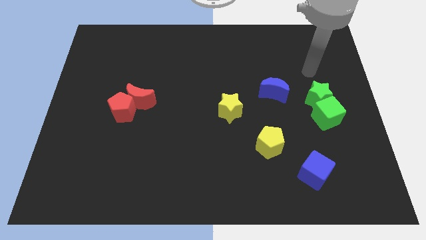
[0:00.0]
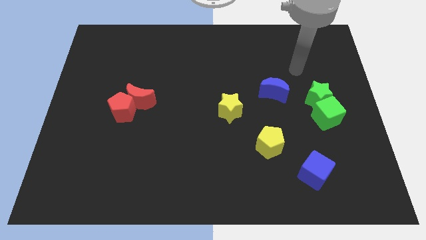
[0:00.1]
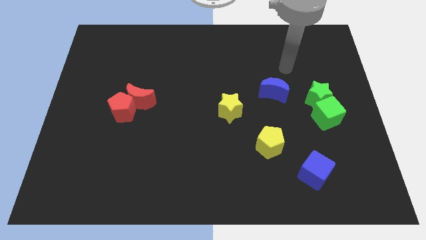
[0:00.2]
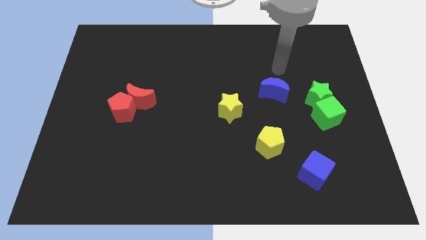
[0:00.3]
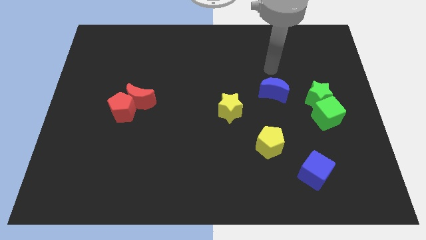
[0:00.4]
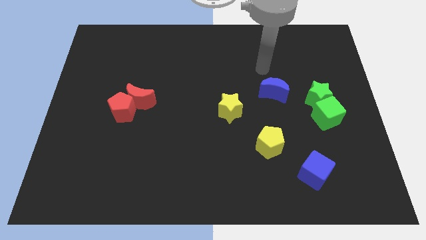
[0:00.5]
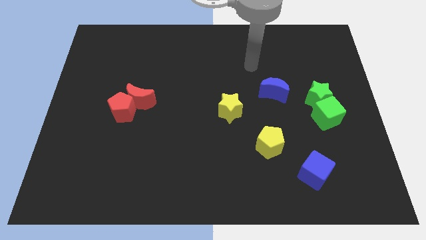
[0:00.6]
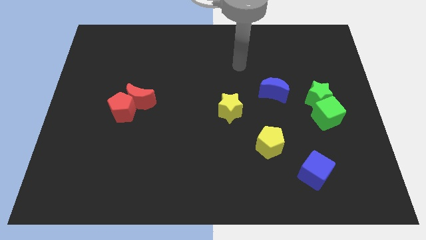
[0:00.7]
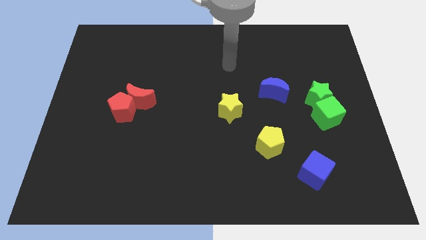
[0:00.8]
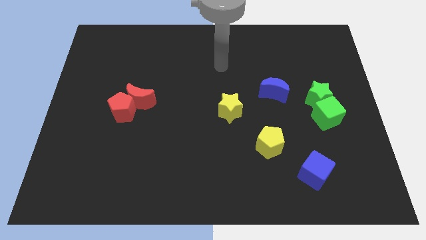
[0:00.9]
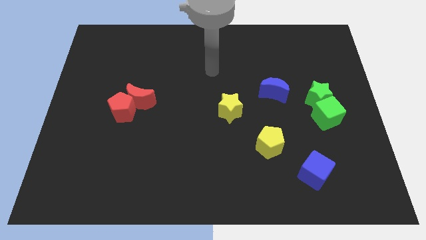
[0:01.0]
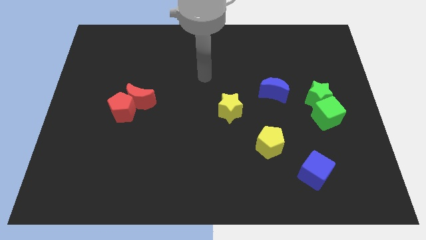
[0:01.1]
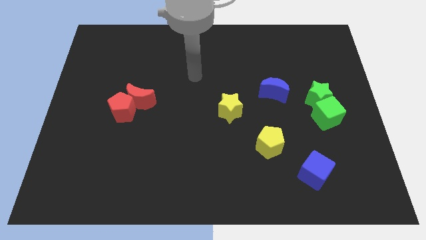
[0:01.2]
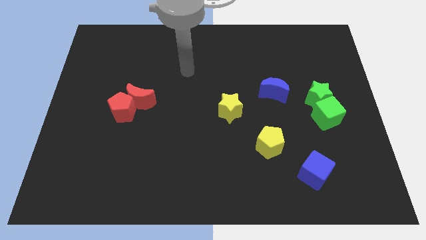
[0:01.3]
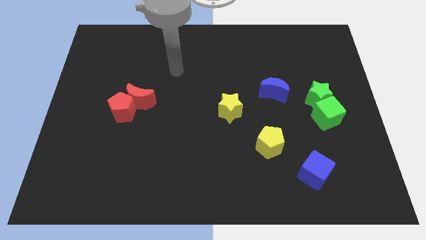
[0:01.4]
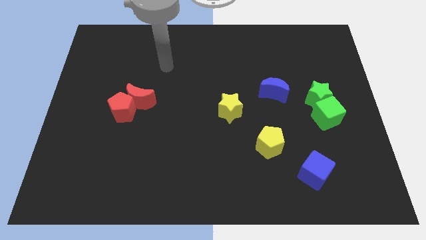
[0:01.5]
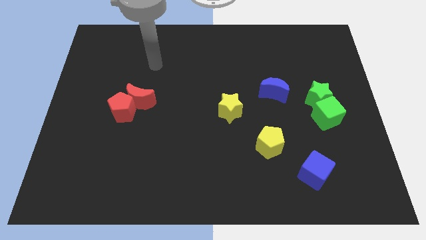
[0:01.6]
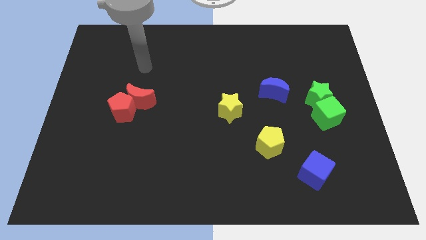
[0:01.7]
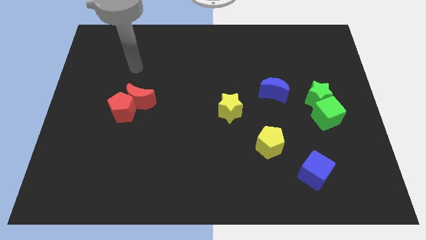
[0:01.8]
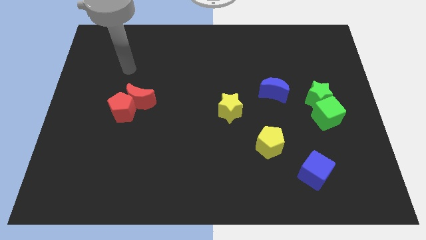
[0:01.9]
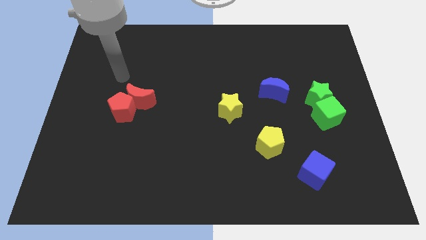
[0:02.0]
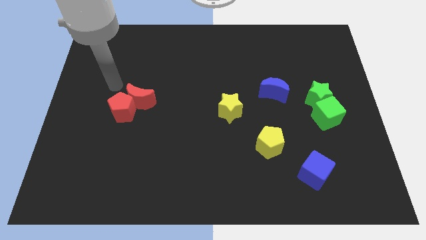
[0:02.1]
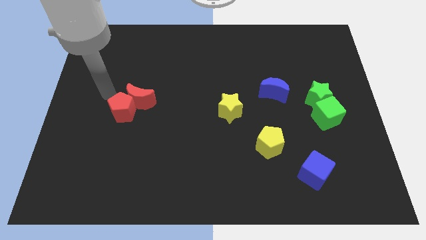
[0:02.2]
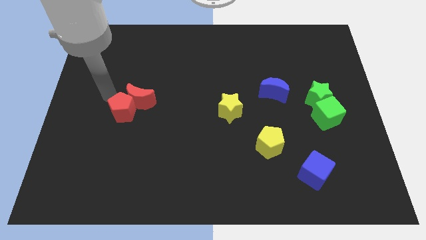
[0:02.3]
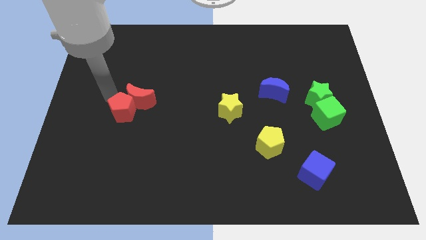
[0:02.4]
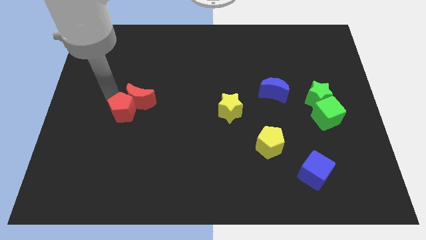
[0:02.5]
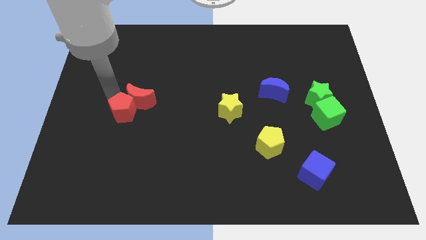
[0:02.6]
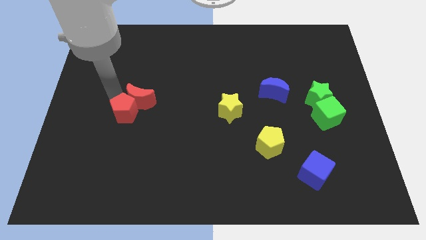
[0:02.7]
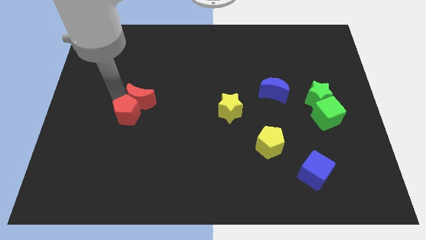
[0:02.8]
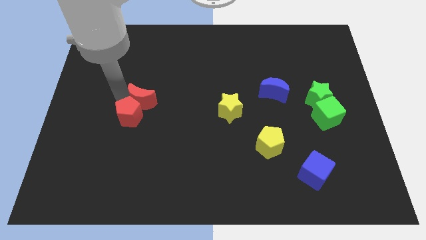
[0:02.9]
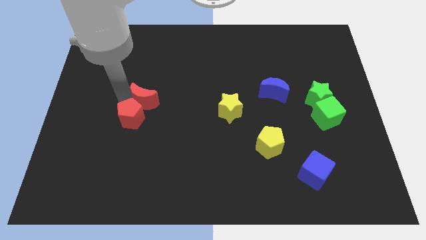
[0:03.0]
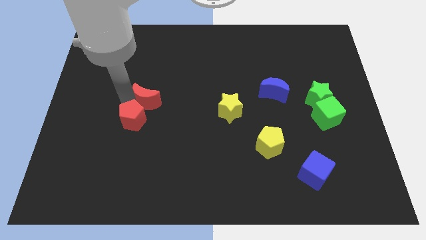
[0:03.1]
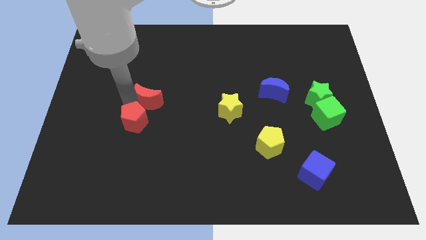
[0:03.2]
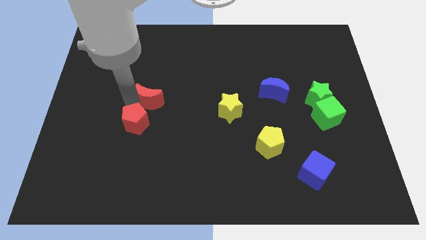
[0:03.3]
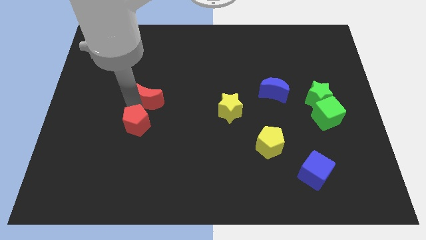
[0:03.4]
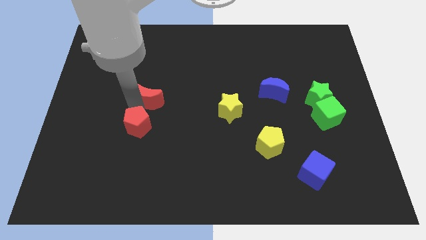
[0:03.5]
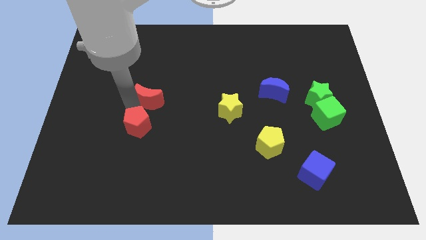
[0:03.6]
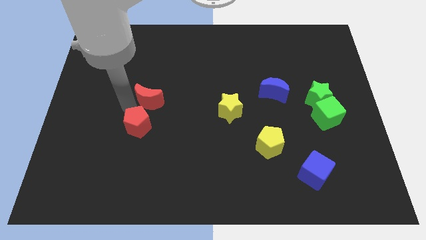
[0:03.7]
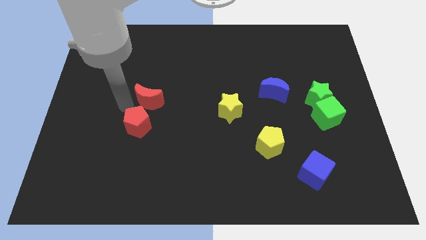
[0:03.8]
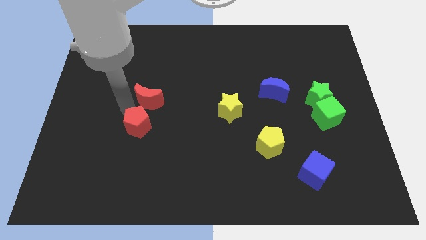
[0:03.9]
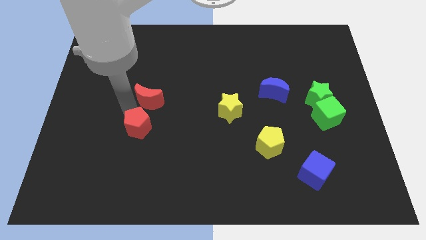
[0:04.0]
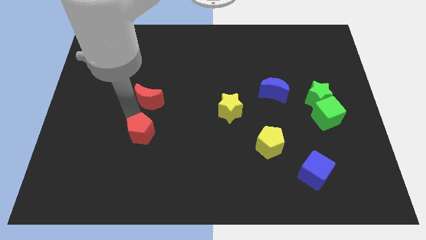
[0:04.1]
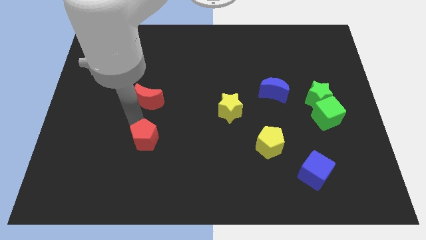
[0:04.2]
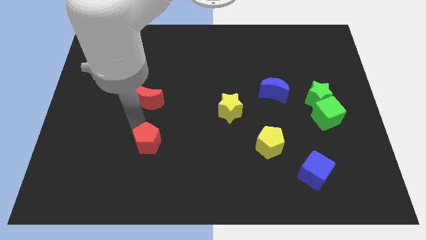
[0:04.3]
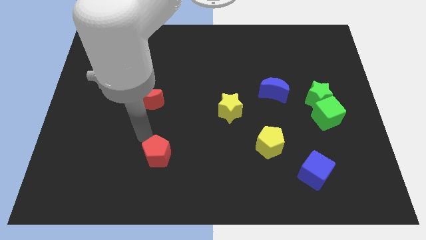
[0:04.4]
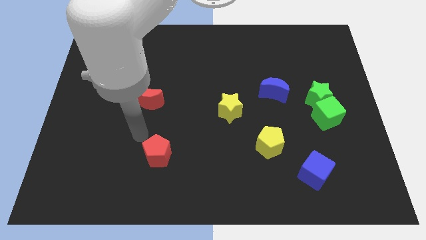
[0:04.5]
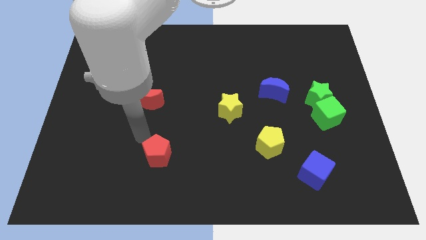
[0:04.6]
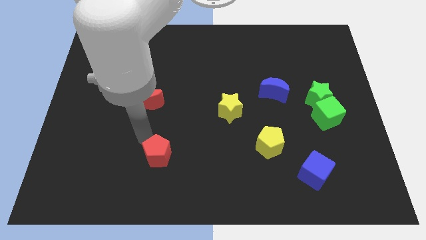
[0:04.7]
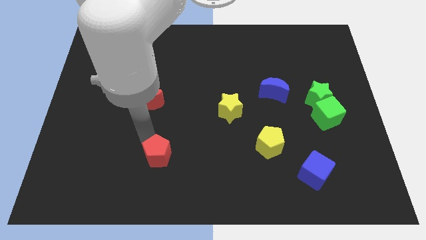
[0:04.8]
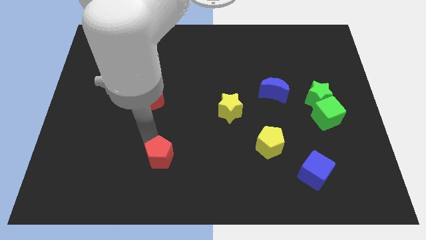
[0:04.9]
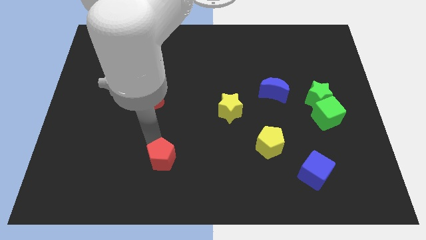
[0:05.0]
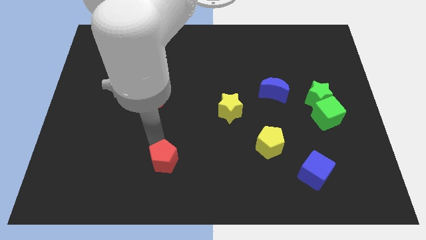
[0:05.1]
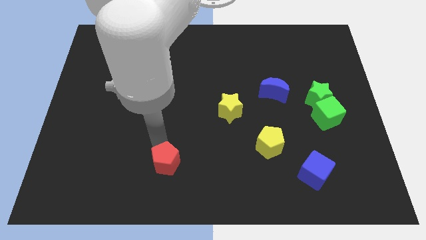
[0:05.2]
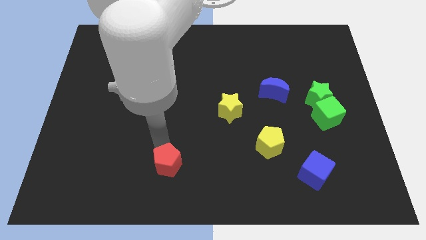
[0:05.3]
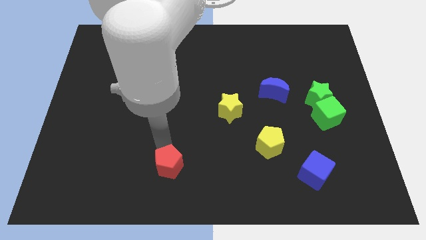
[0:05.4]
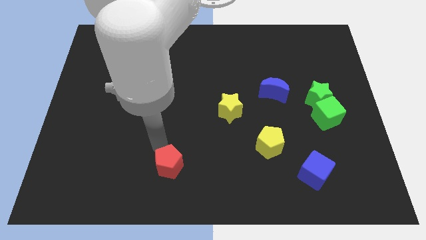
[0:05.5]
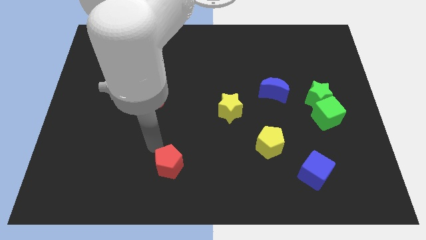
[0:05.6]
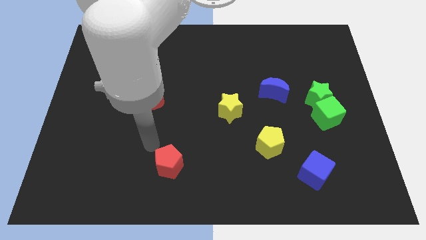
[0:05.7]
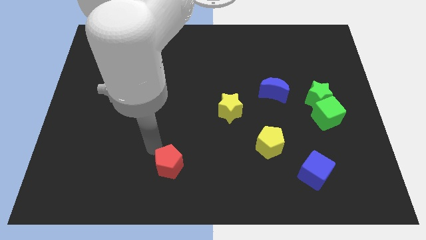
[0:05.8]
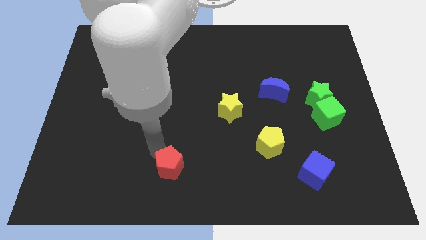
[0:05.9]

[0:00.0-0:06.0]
push the red pentagon to the bottom side

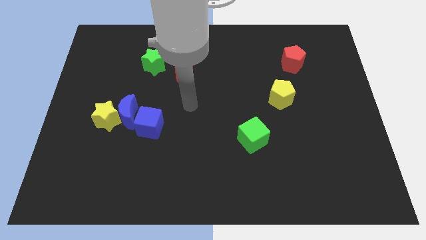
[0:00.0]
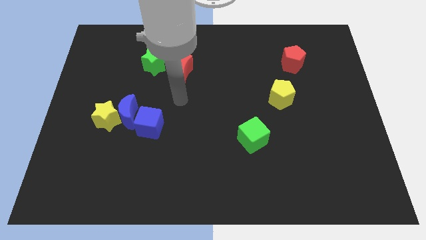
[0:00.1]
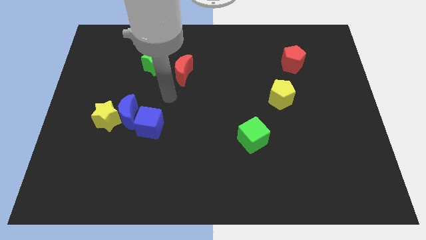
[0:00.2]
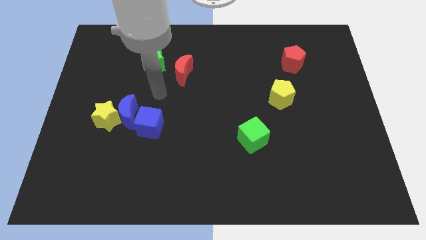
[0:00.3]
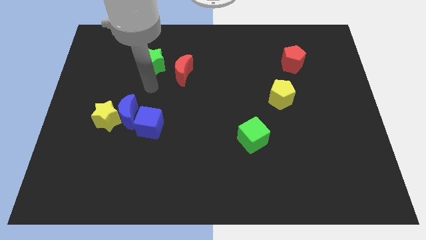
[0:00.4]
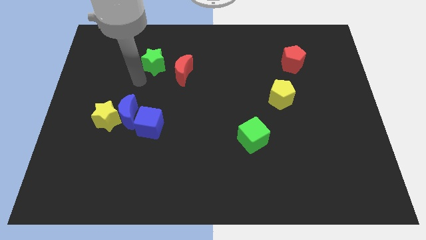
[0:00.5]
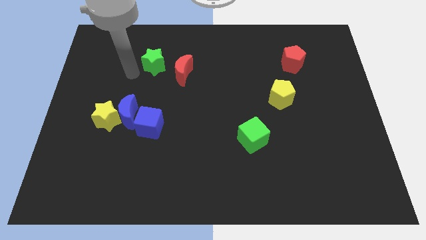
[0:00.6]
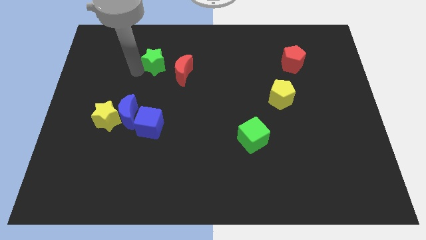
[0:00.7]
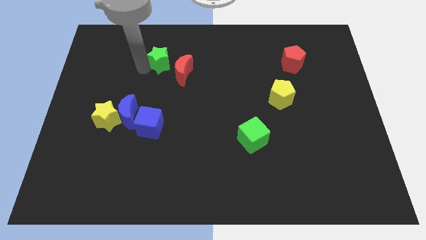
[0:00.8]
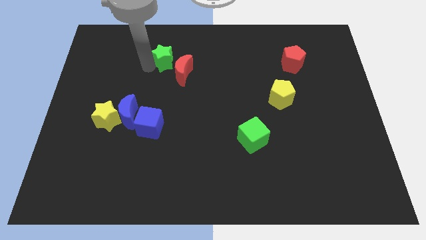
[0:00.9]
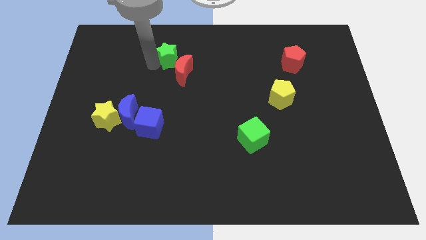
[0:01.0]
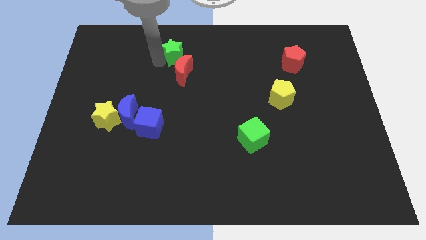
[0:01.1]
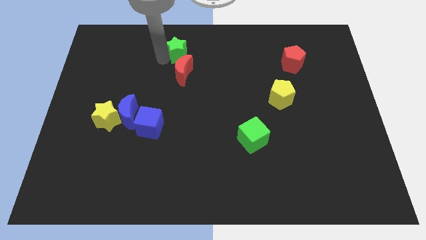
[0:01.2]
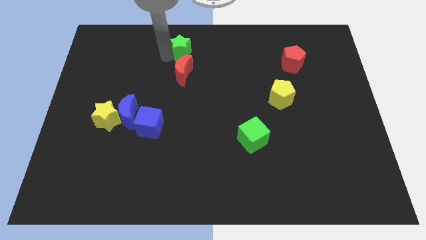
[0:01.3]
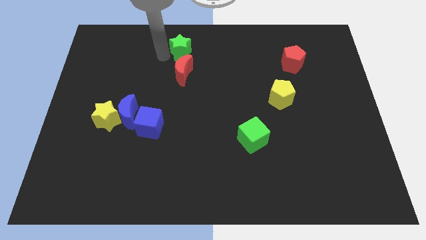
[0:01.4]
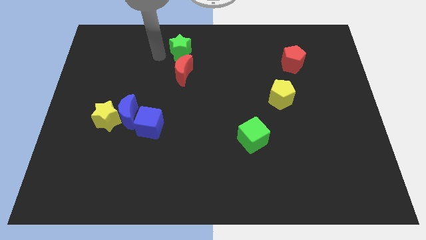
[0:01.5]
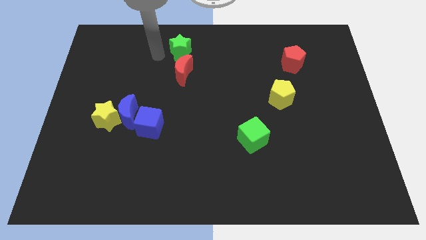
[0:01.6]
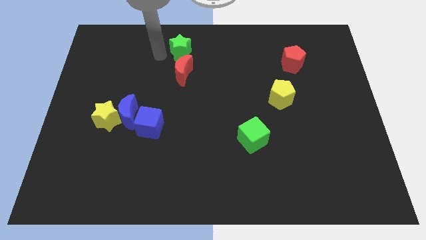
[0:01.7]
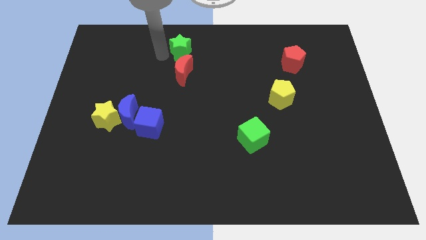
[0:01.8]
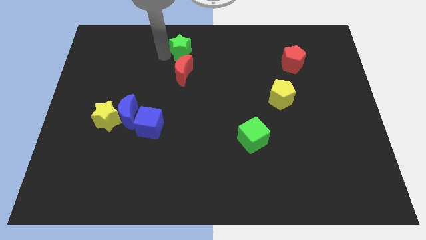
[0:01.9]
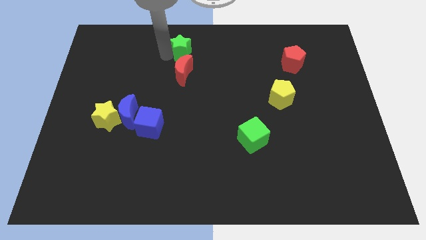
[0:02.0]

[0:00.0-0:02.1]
push the green star to the top side
